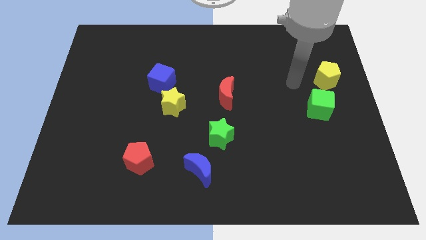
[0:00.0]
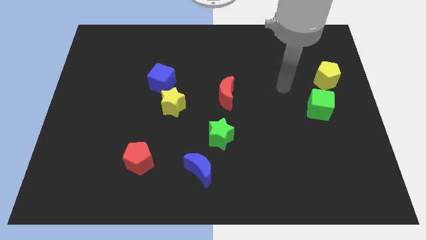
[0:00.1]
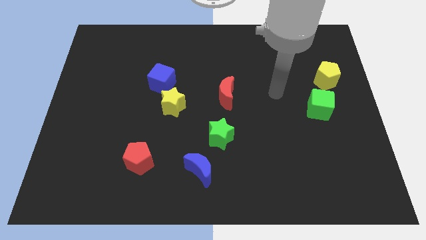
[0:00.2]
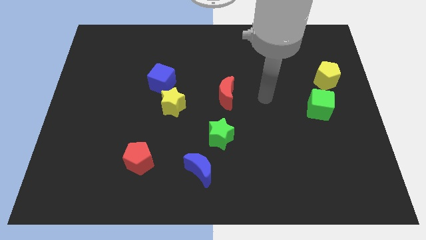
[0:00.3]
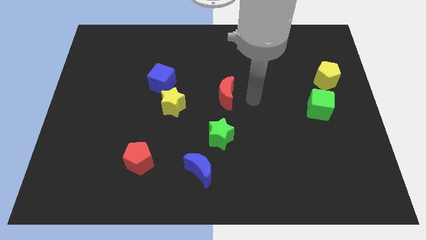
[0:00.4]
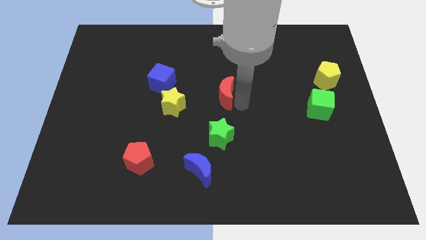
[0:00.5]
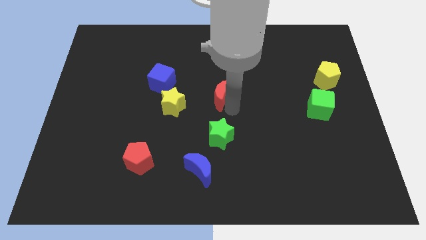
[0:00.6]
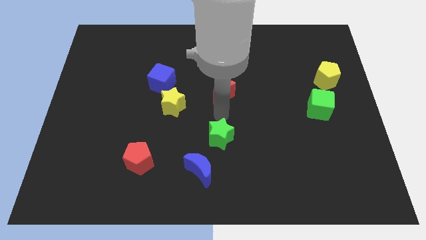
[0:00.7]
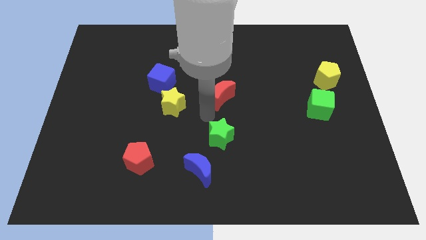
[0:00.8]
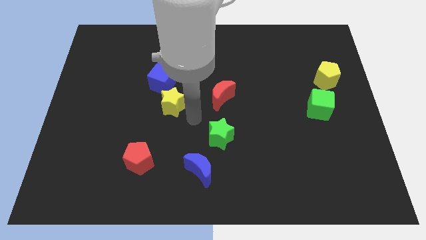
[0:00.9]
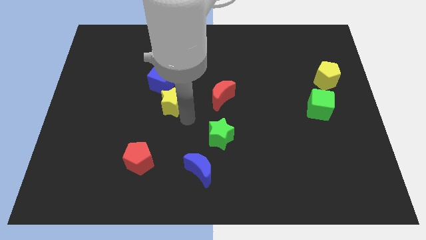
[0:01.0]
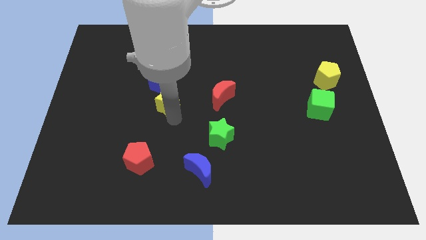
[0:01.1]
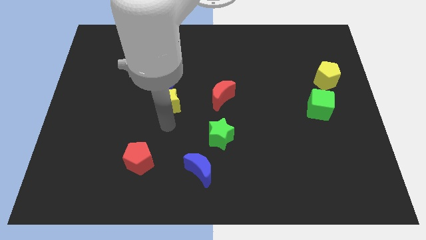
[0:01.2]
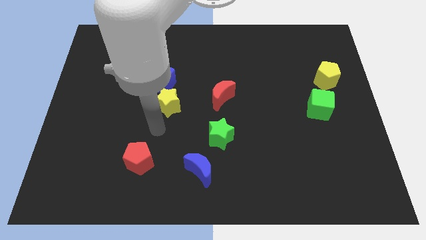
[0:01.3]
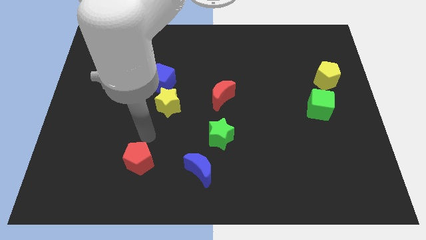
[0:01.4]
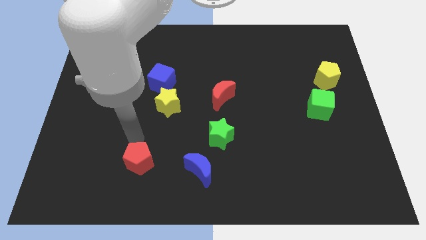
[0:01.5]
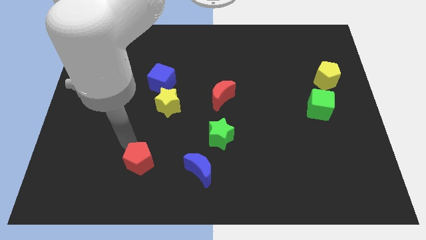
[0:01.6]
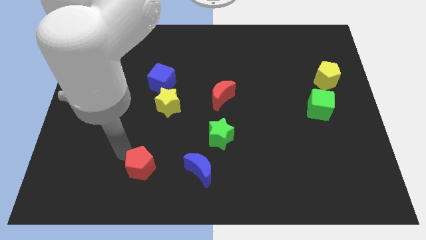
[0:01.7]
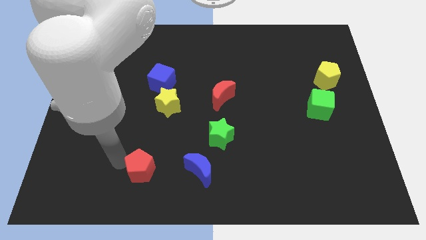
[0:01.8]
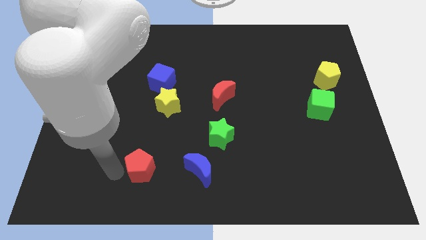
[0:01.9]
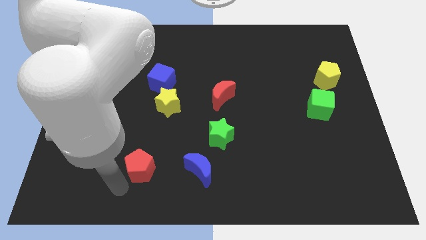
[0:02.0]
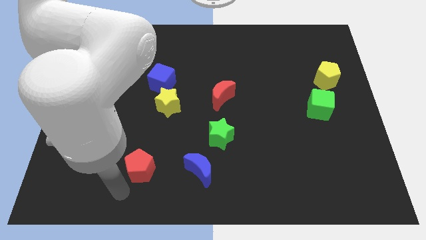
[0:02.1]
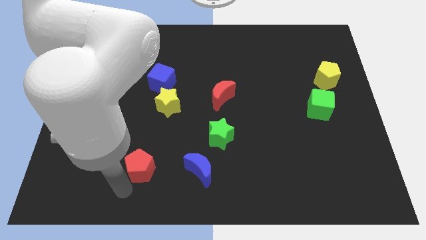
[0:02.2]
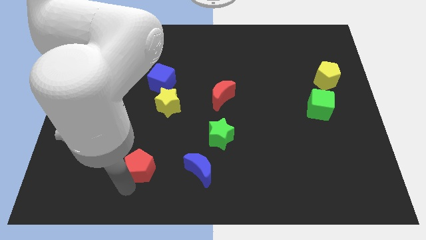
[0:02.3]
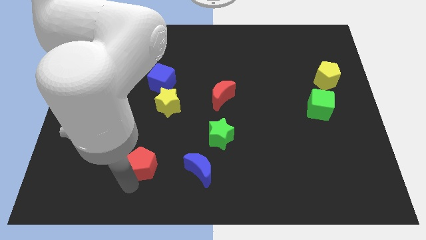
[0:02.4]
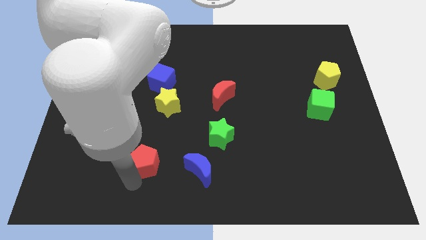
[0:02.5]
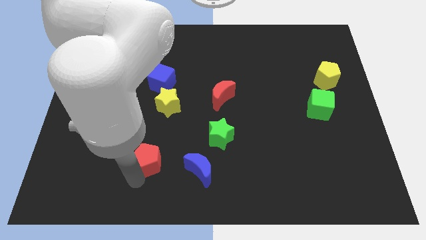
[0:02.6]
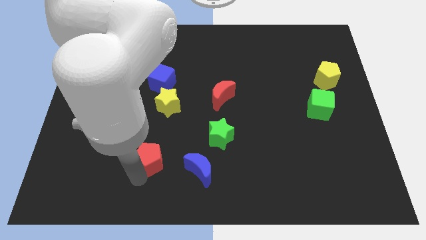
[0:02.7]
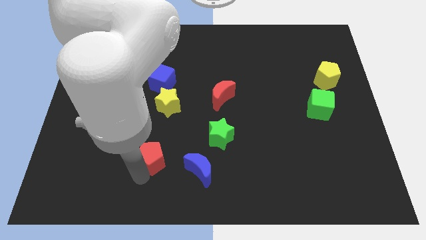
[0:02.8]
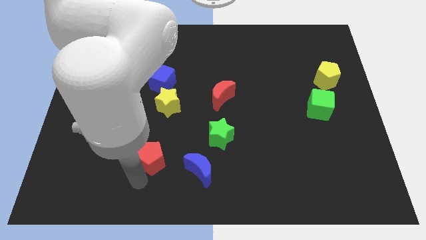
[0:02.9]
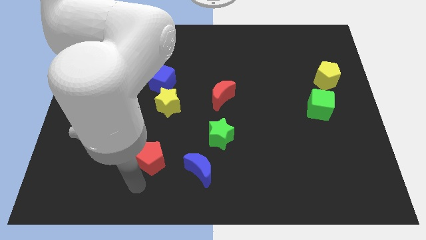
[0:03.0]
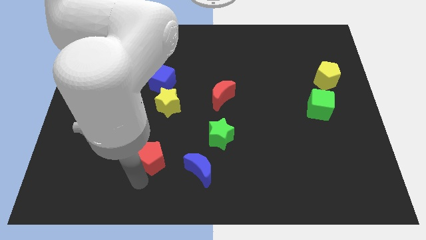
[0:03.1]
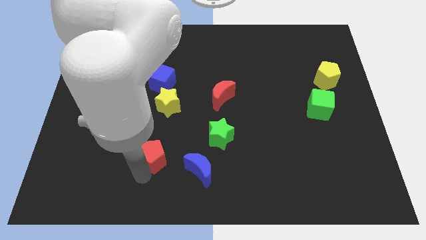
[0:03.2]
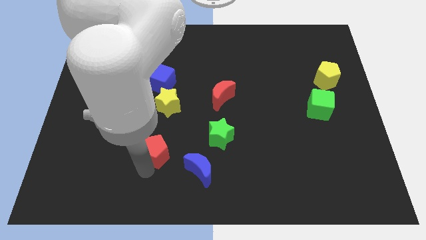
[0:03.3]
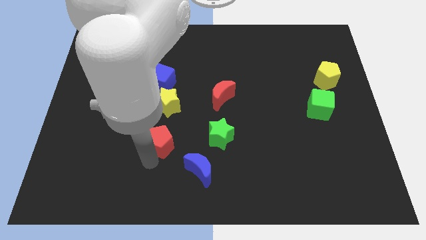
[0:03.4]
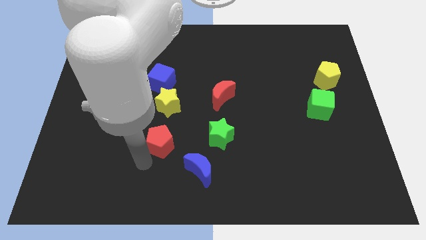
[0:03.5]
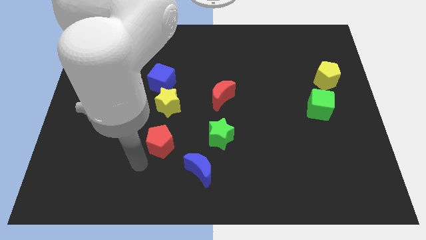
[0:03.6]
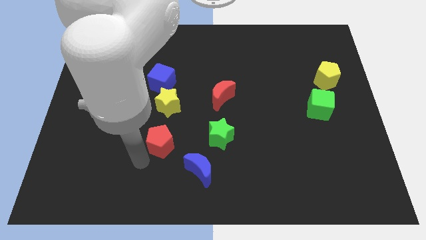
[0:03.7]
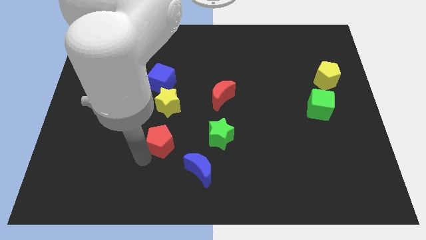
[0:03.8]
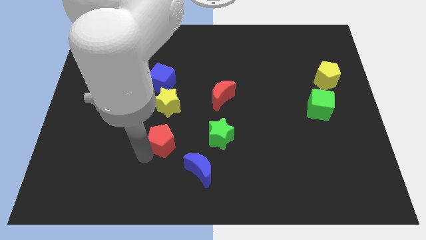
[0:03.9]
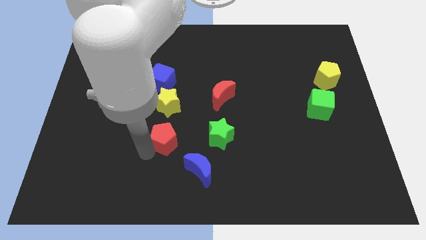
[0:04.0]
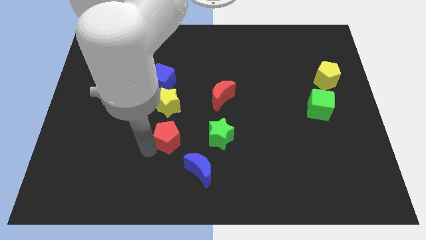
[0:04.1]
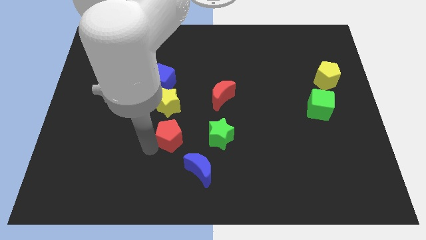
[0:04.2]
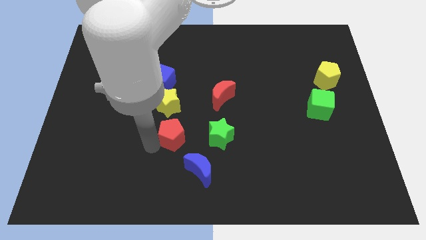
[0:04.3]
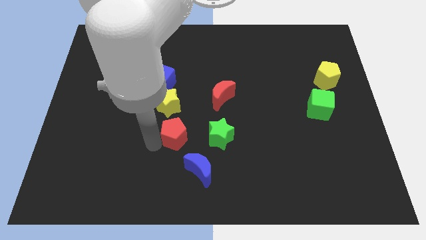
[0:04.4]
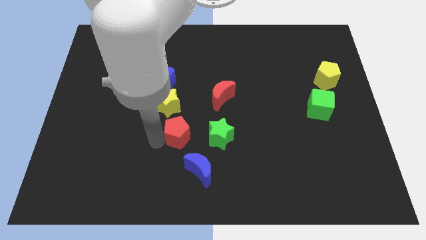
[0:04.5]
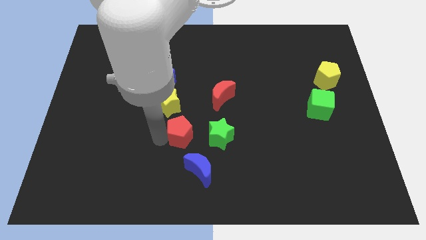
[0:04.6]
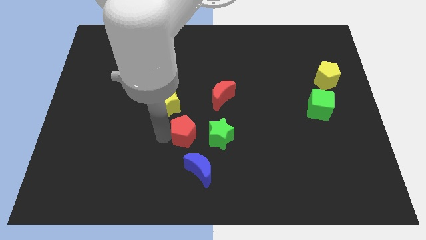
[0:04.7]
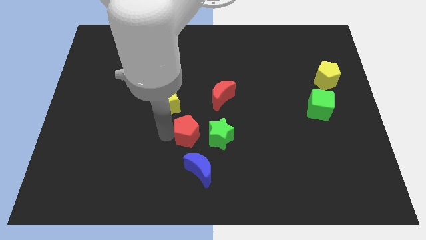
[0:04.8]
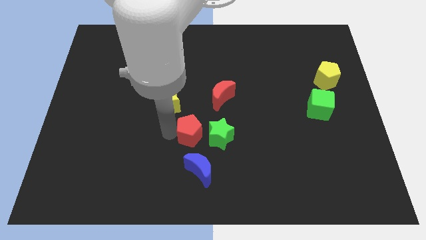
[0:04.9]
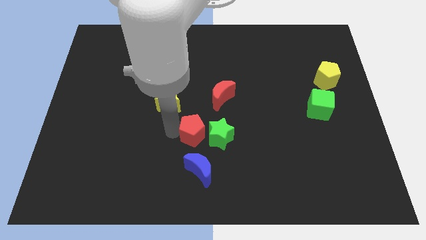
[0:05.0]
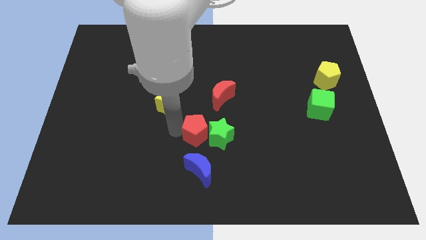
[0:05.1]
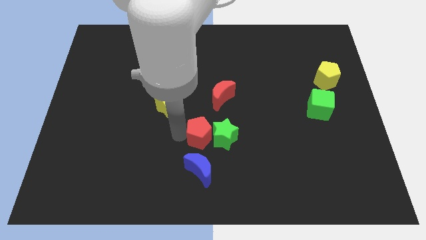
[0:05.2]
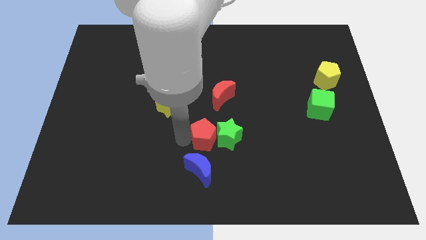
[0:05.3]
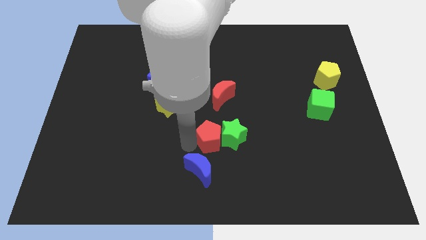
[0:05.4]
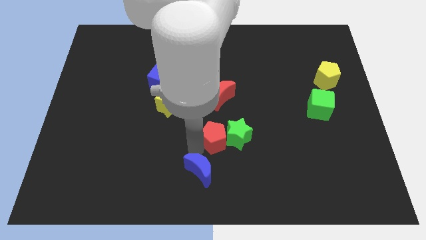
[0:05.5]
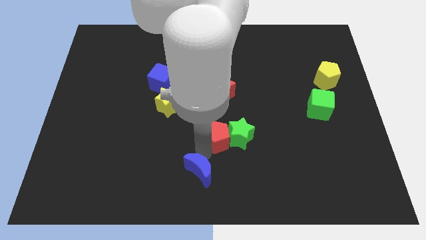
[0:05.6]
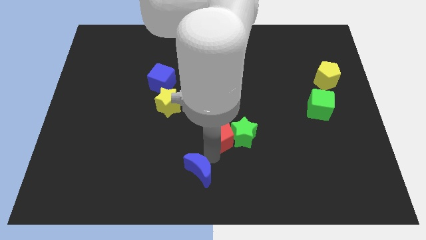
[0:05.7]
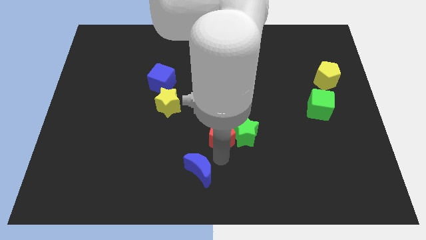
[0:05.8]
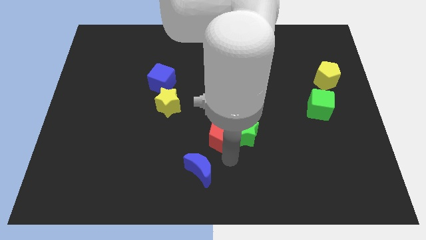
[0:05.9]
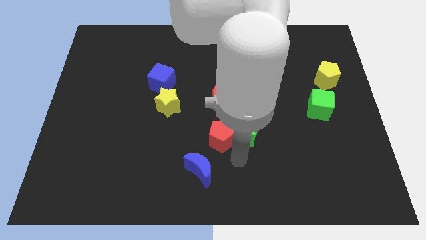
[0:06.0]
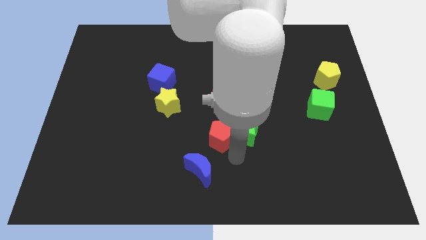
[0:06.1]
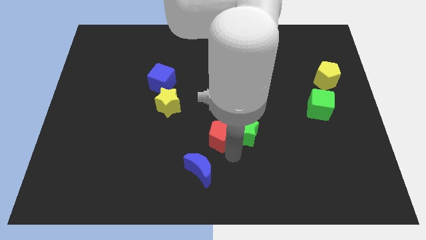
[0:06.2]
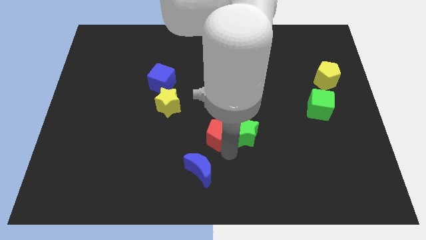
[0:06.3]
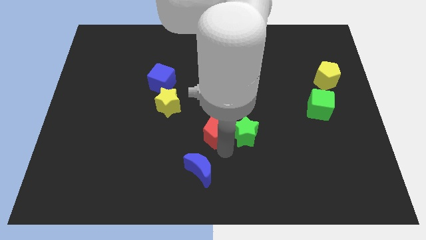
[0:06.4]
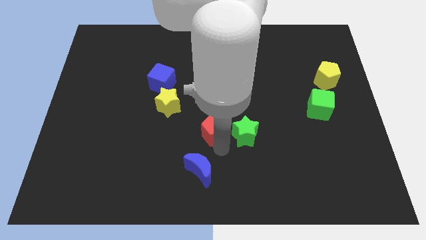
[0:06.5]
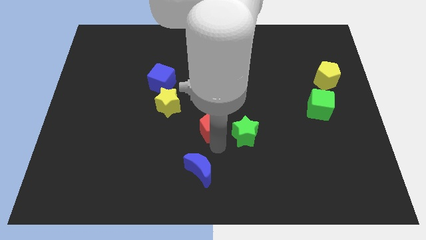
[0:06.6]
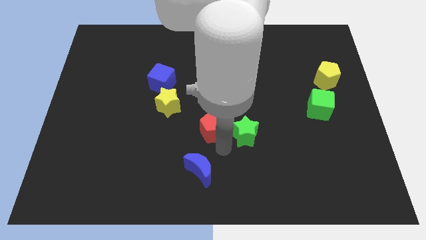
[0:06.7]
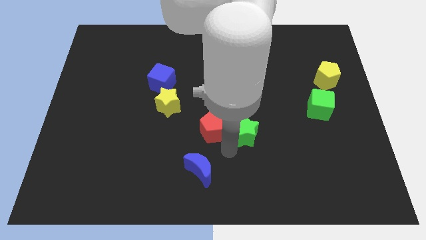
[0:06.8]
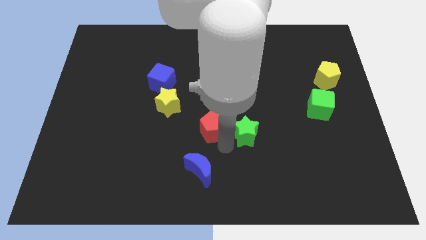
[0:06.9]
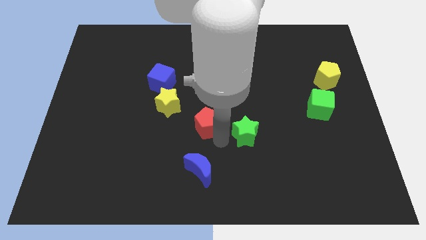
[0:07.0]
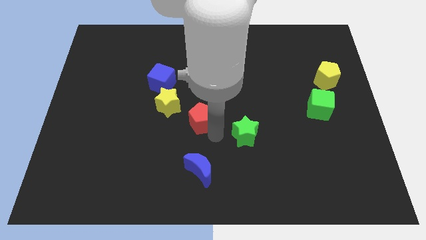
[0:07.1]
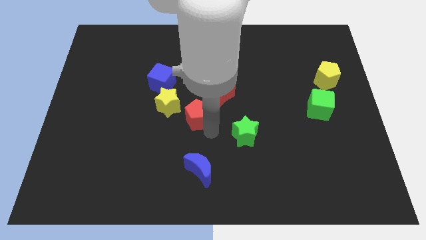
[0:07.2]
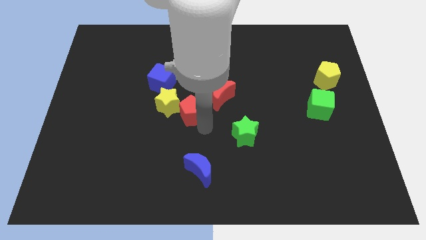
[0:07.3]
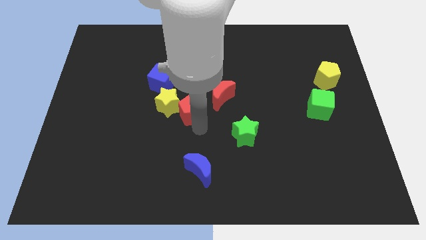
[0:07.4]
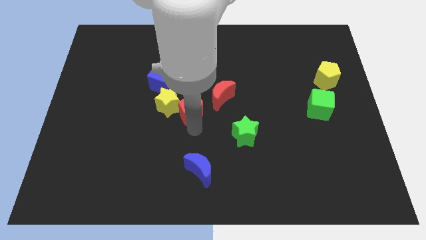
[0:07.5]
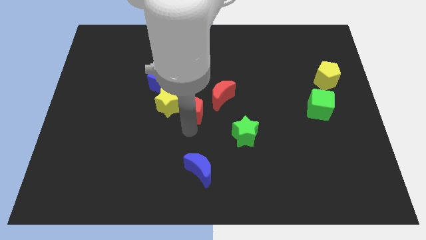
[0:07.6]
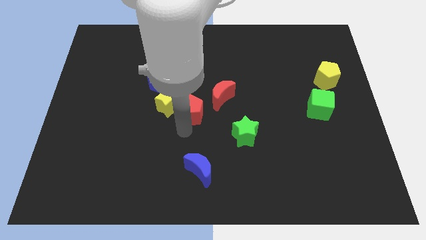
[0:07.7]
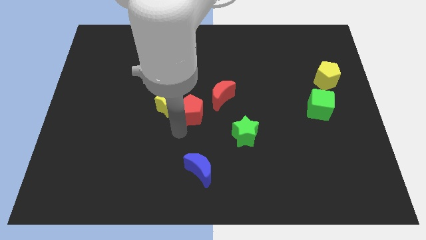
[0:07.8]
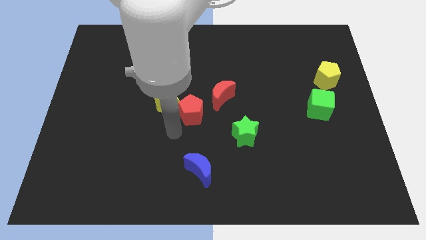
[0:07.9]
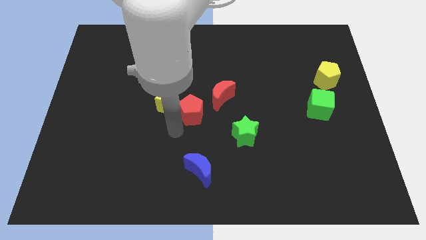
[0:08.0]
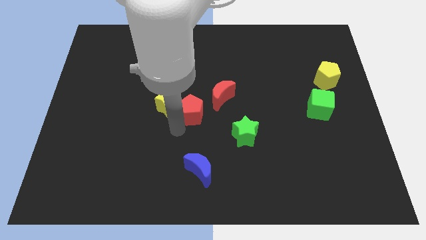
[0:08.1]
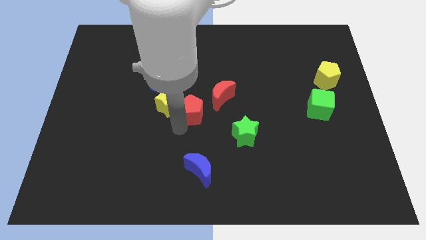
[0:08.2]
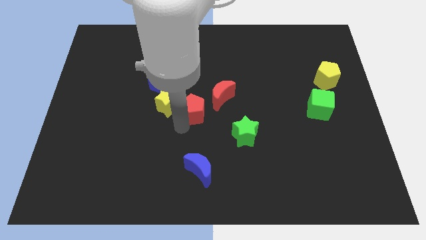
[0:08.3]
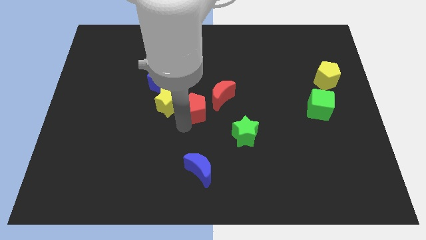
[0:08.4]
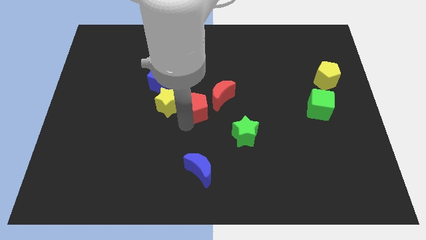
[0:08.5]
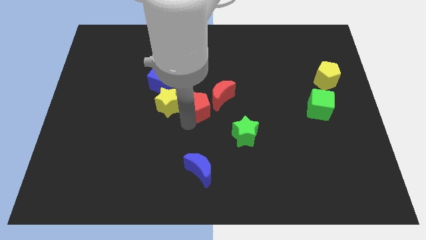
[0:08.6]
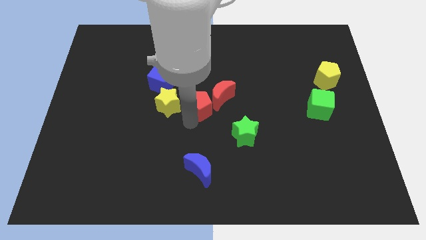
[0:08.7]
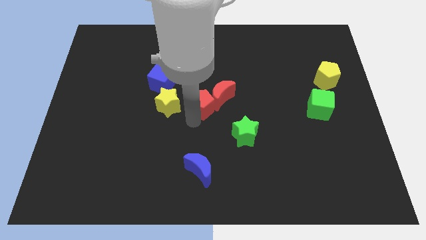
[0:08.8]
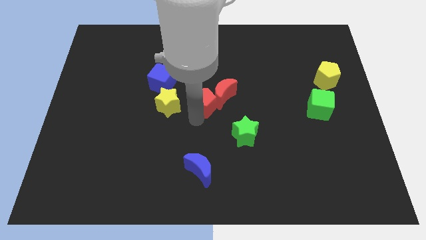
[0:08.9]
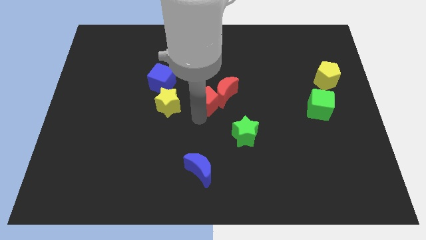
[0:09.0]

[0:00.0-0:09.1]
slide the red pentagon upwards and right diagonally
